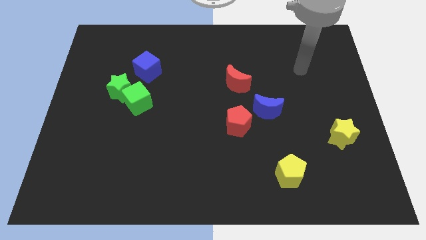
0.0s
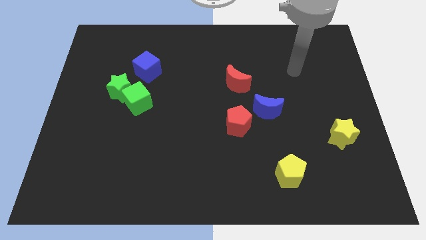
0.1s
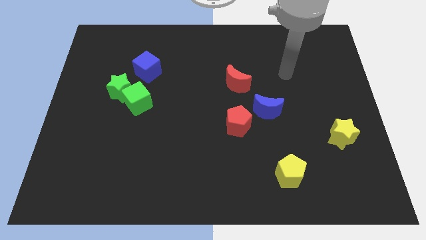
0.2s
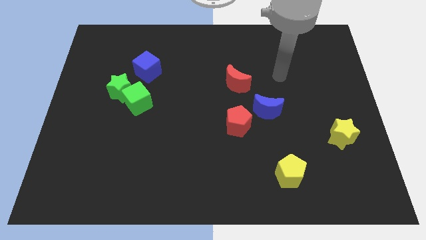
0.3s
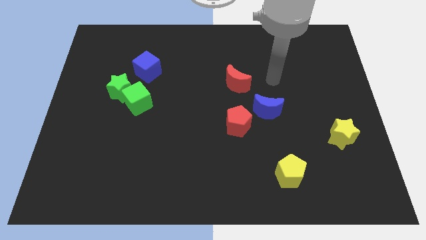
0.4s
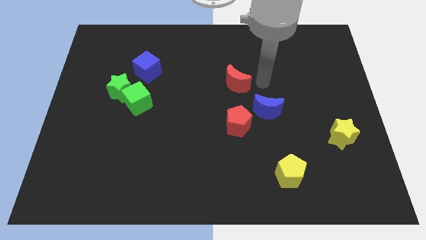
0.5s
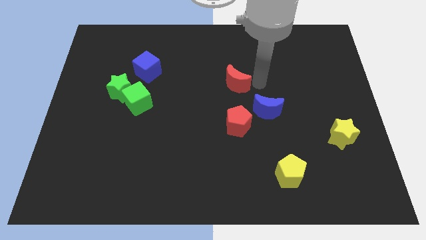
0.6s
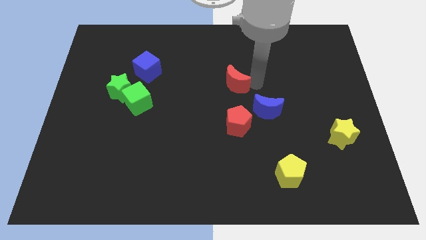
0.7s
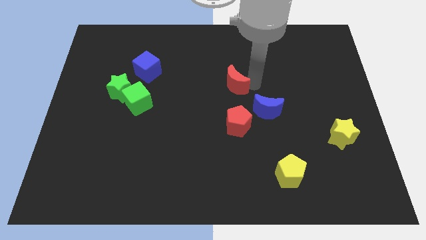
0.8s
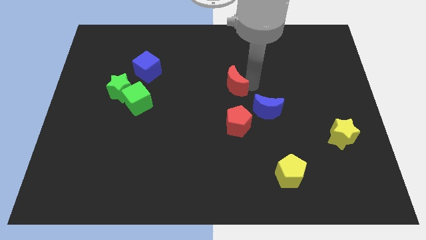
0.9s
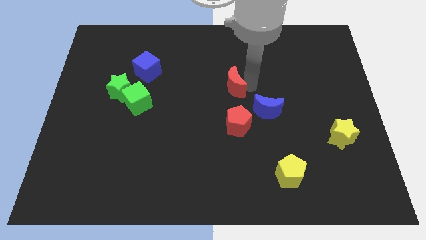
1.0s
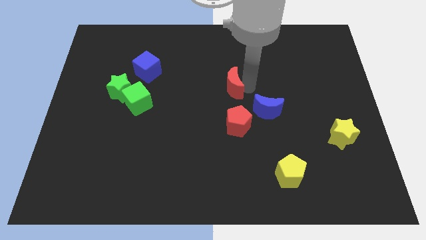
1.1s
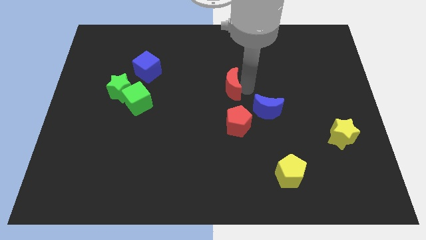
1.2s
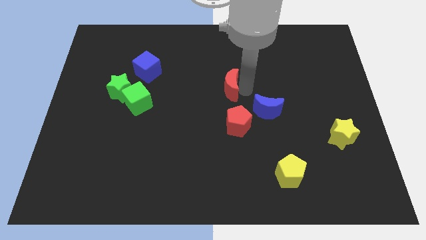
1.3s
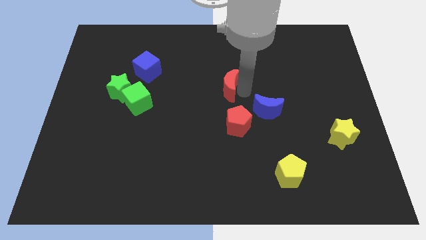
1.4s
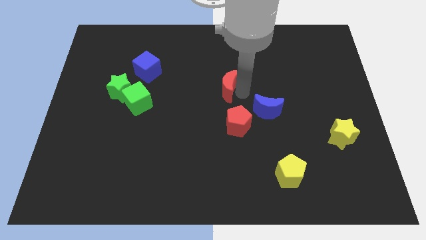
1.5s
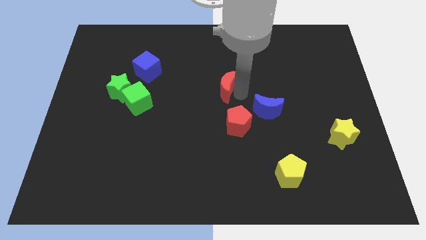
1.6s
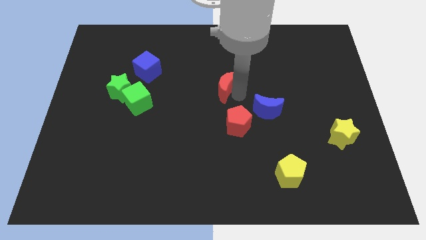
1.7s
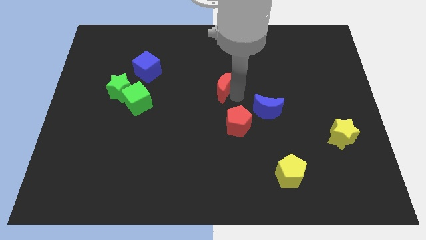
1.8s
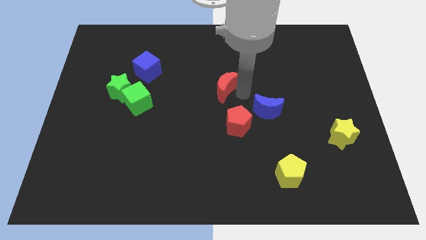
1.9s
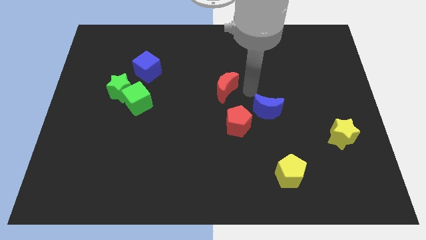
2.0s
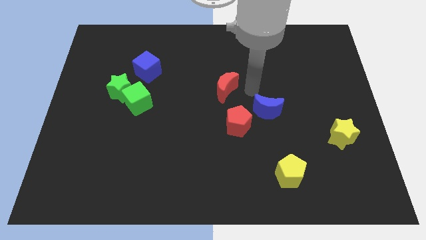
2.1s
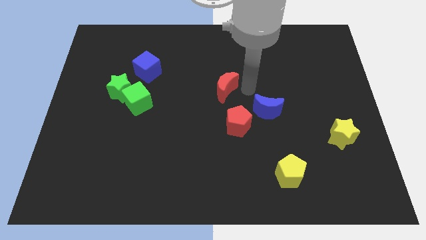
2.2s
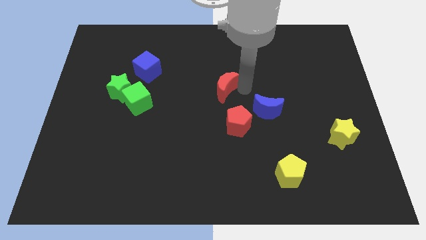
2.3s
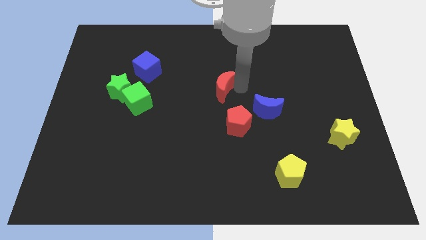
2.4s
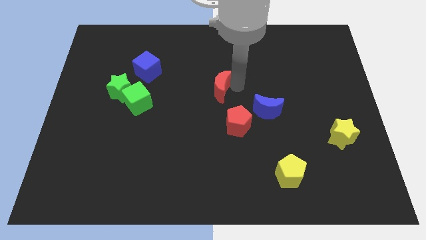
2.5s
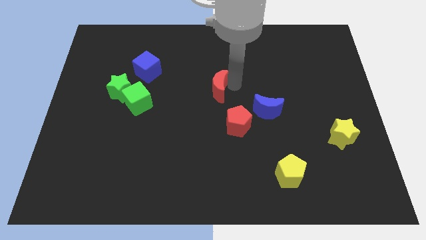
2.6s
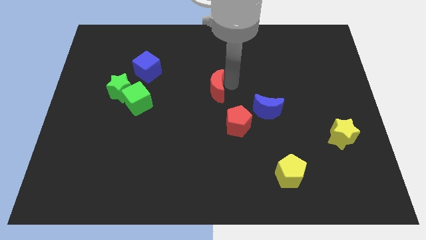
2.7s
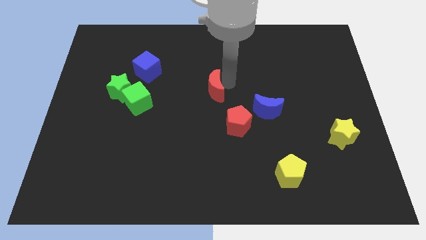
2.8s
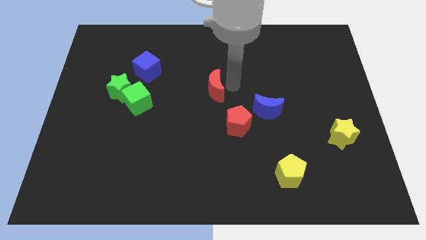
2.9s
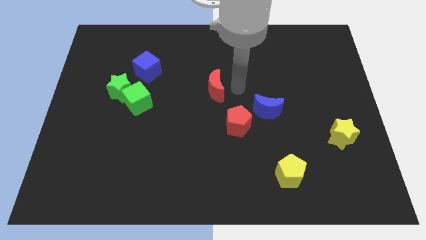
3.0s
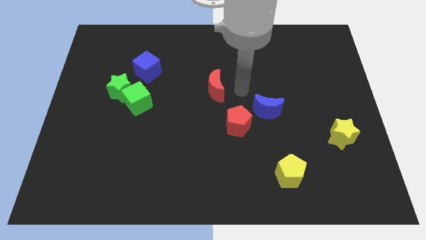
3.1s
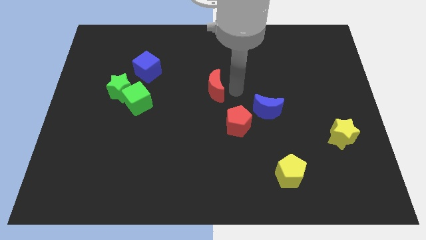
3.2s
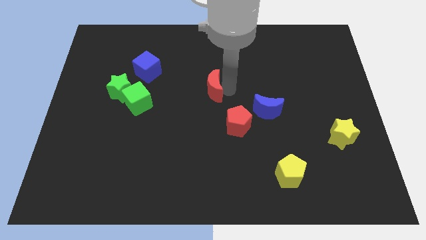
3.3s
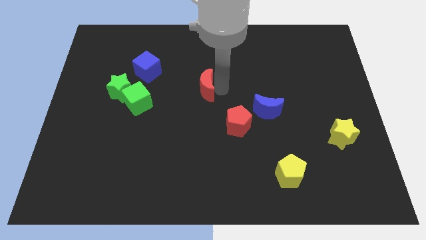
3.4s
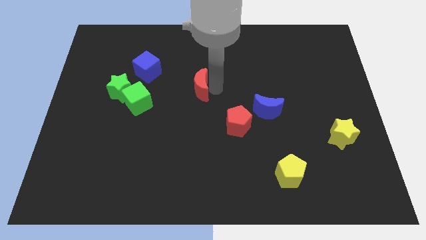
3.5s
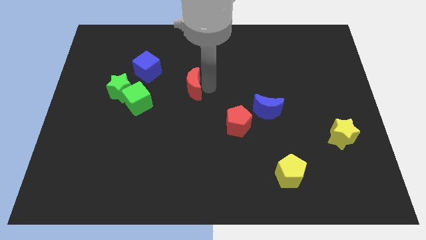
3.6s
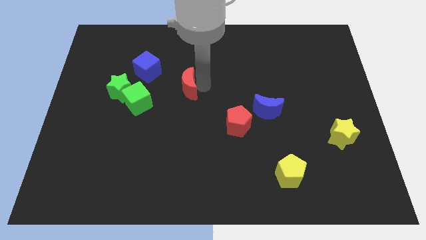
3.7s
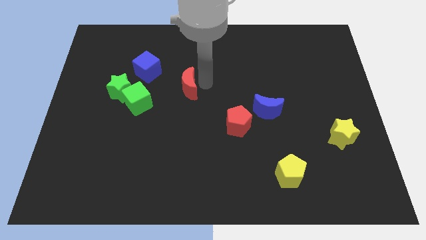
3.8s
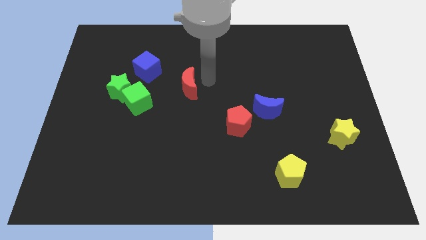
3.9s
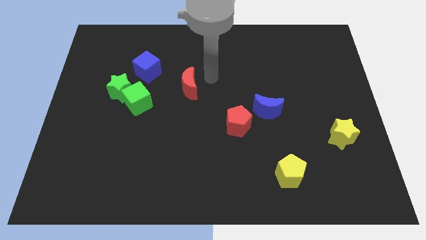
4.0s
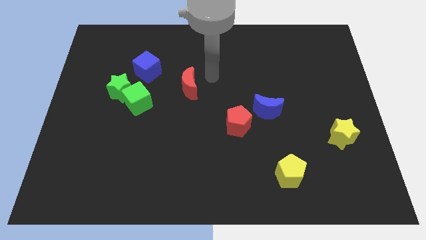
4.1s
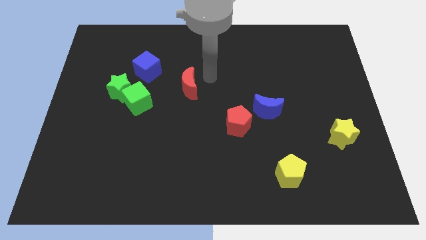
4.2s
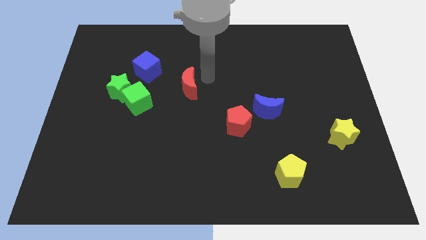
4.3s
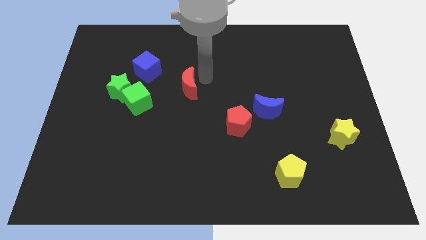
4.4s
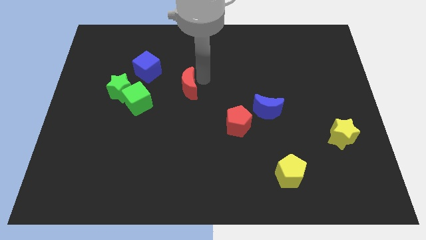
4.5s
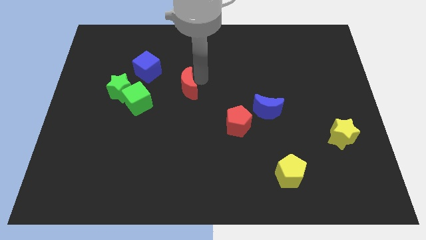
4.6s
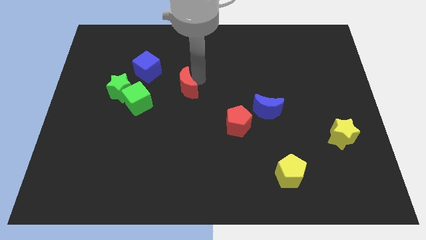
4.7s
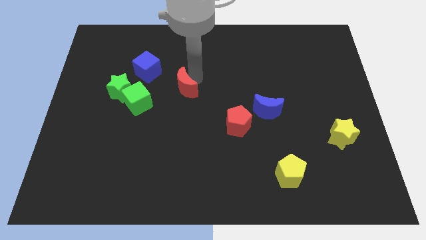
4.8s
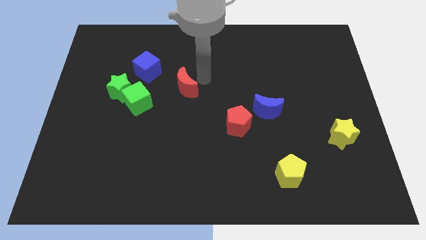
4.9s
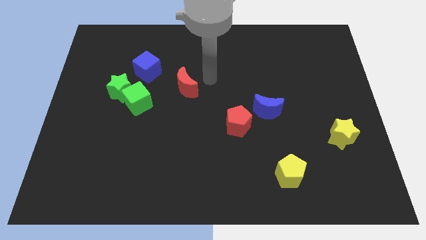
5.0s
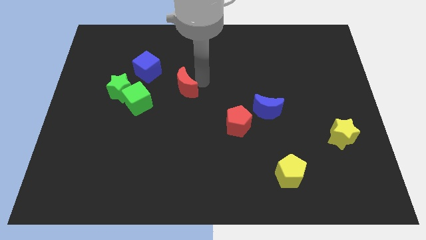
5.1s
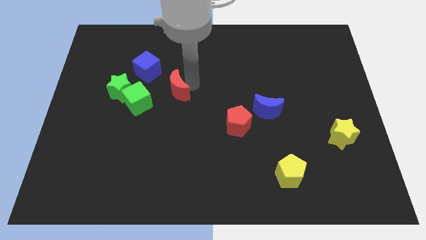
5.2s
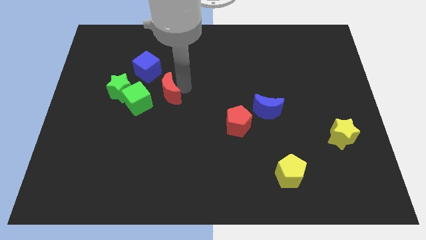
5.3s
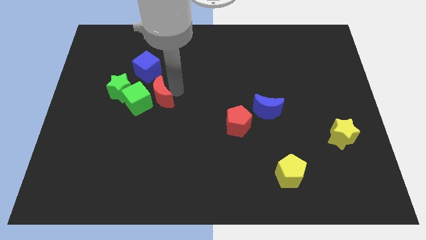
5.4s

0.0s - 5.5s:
slide the red moon towards the green cube

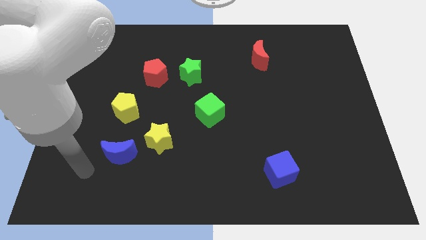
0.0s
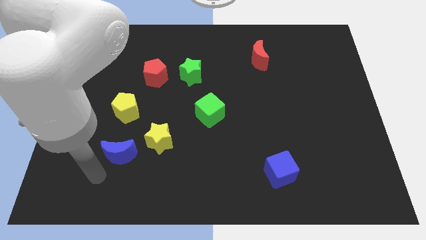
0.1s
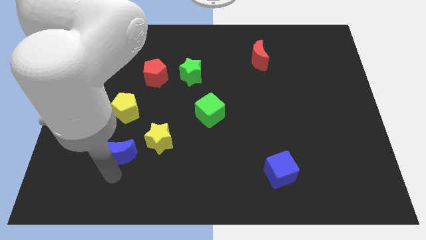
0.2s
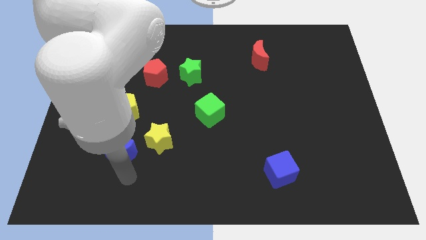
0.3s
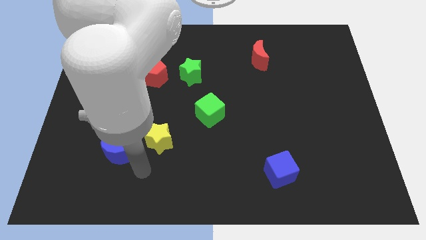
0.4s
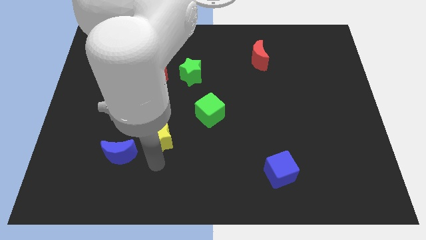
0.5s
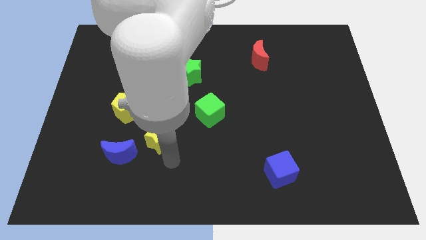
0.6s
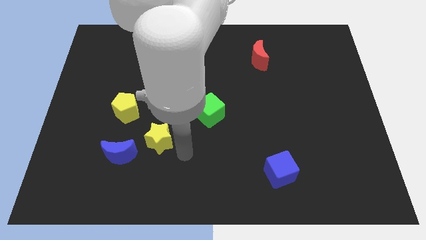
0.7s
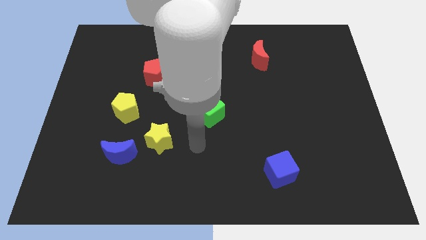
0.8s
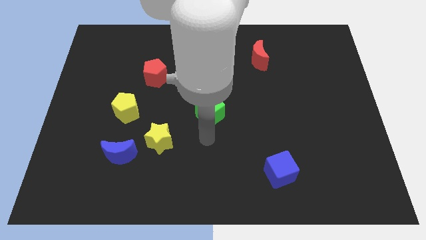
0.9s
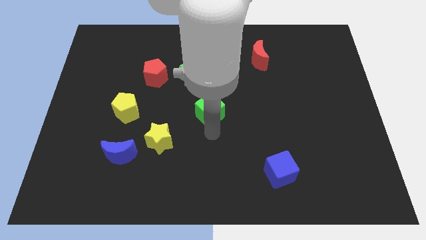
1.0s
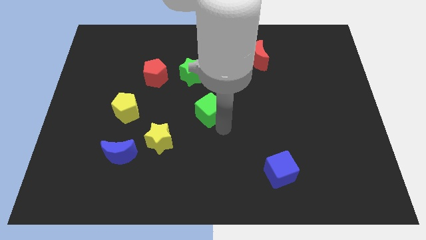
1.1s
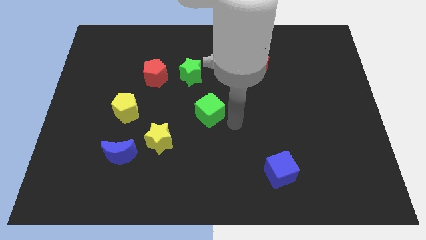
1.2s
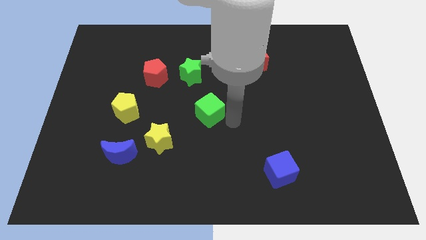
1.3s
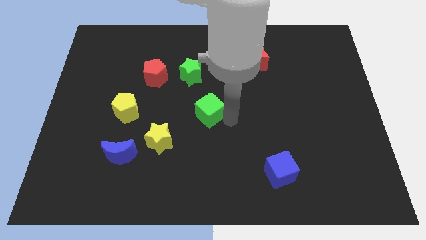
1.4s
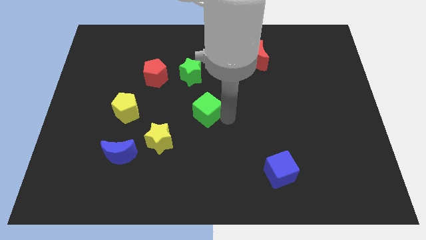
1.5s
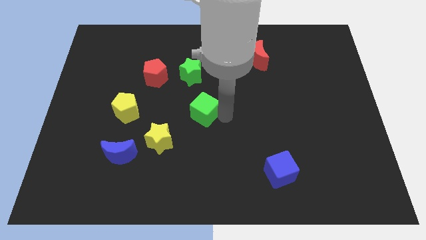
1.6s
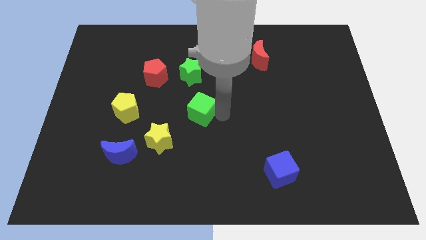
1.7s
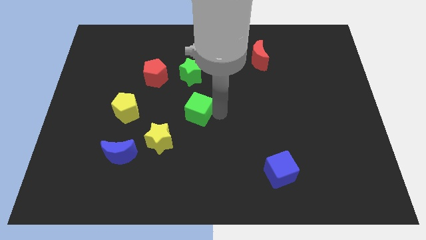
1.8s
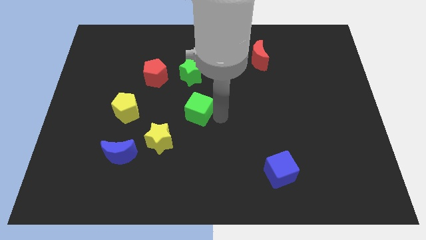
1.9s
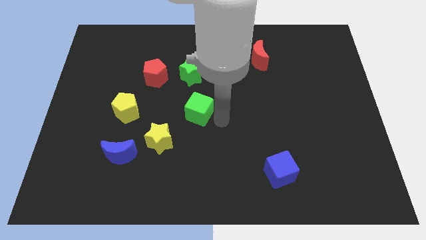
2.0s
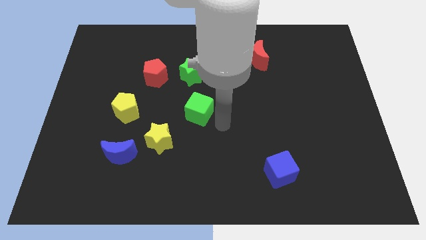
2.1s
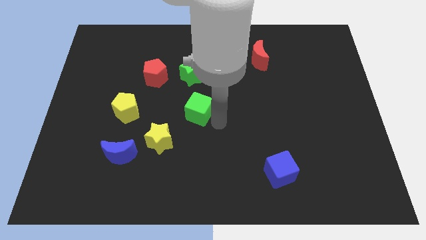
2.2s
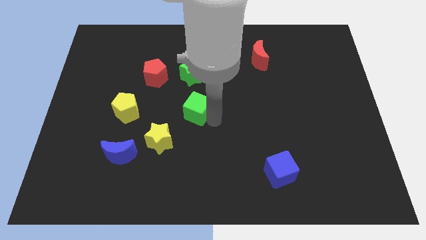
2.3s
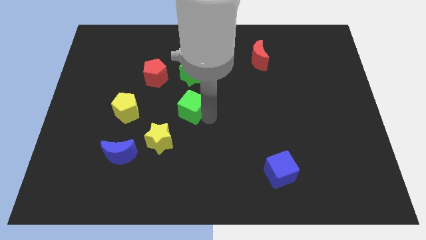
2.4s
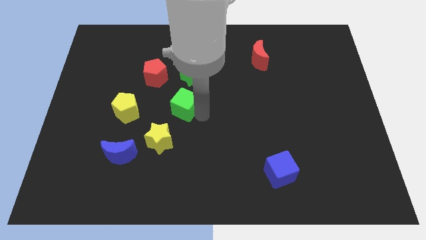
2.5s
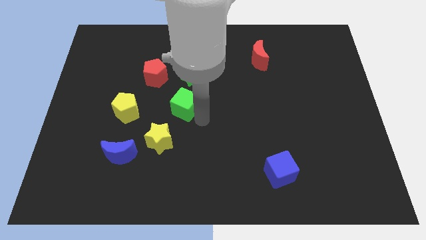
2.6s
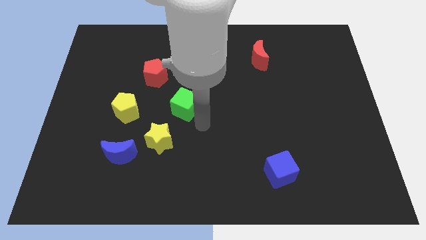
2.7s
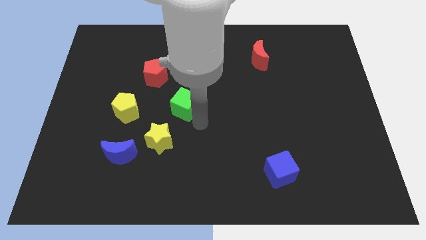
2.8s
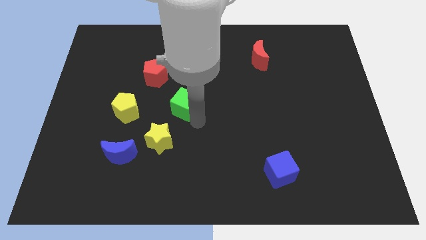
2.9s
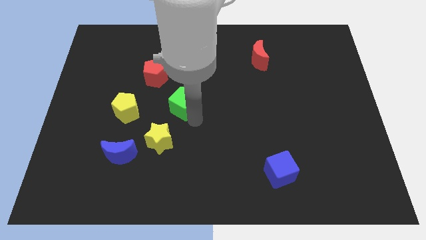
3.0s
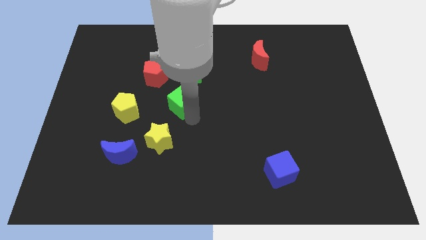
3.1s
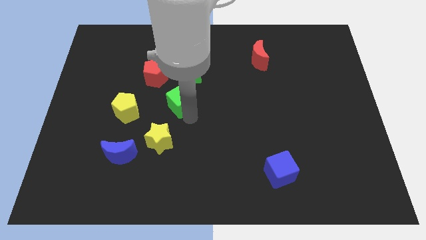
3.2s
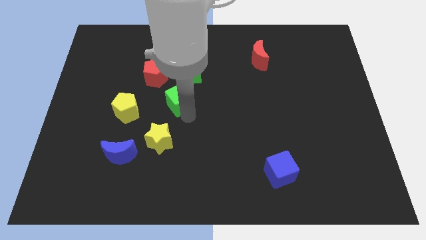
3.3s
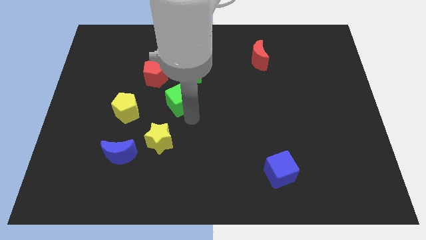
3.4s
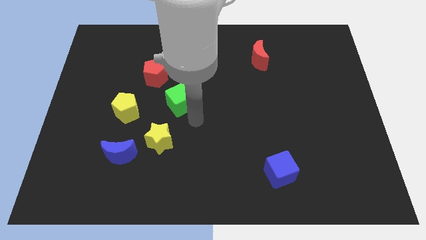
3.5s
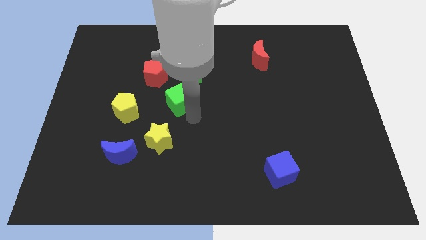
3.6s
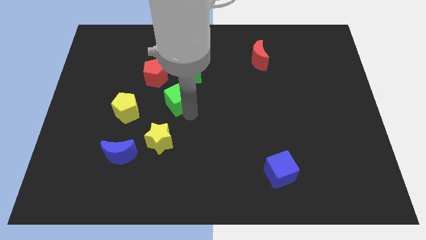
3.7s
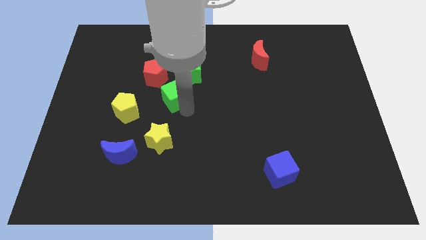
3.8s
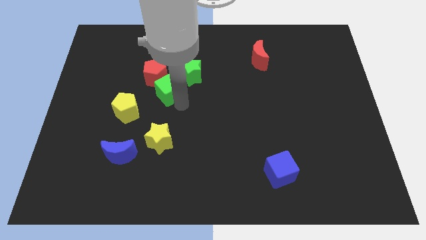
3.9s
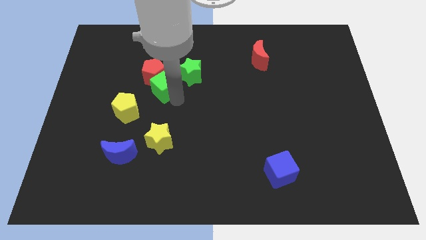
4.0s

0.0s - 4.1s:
push the green cube close to the red pentagon
